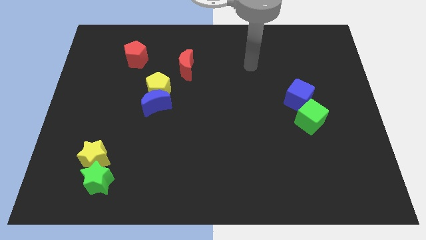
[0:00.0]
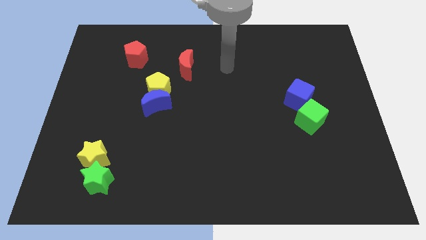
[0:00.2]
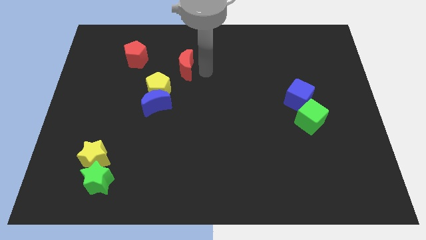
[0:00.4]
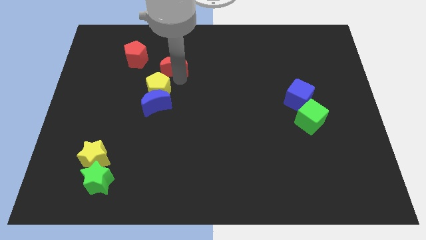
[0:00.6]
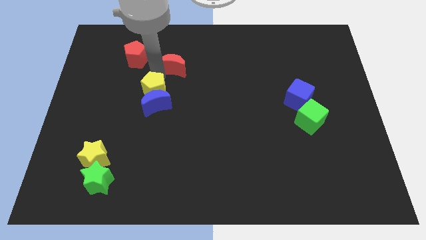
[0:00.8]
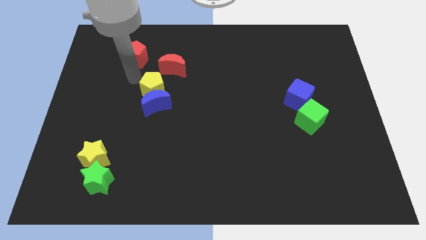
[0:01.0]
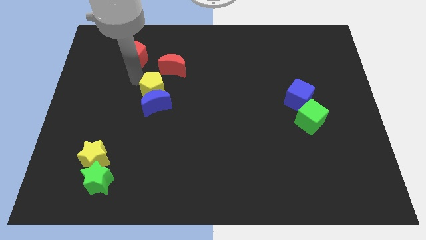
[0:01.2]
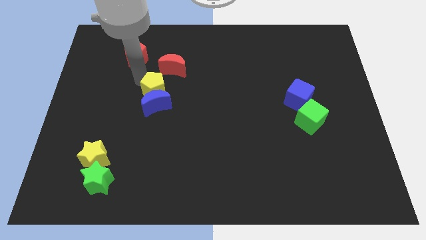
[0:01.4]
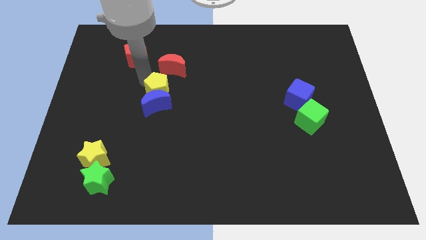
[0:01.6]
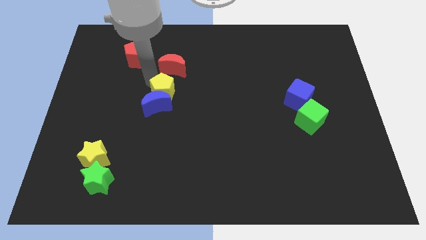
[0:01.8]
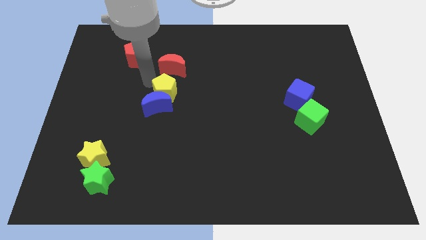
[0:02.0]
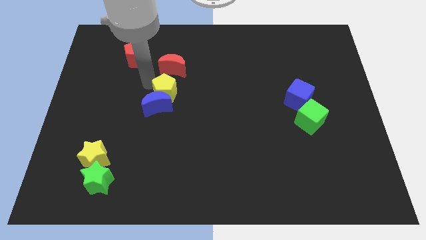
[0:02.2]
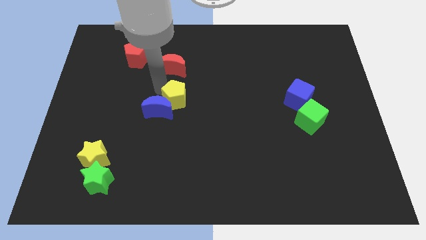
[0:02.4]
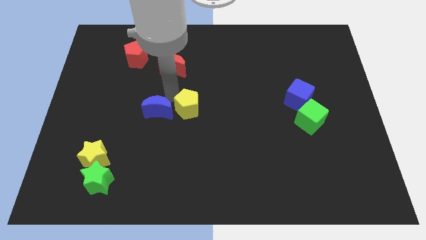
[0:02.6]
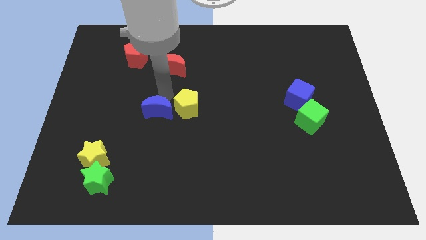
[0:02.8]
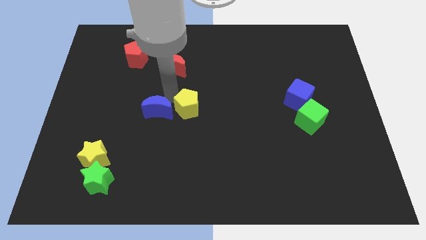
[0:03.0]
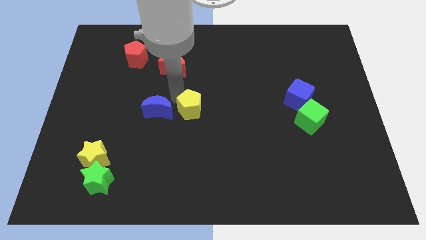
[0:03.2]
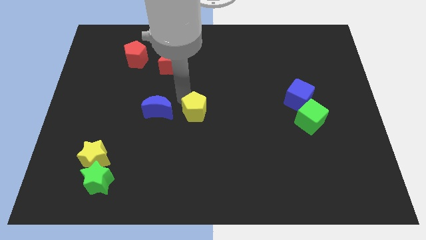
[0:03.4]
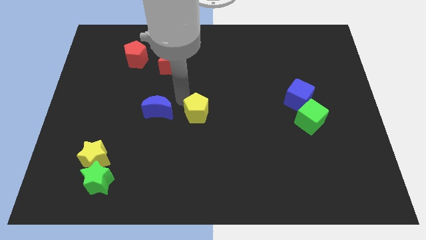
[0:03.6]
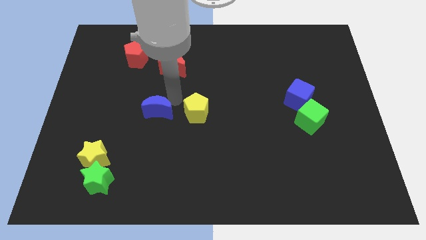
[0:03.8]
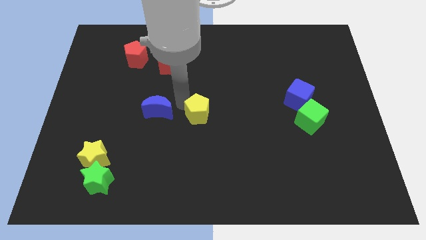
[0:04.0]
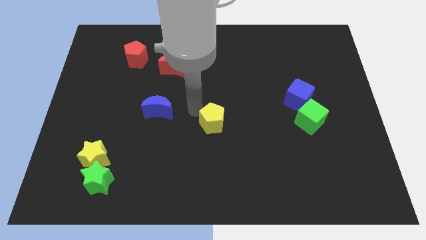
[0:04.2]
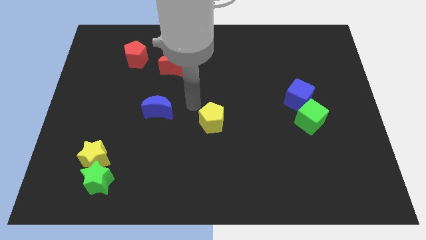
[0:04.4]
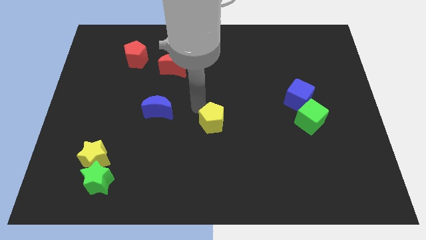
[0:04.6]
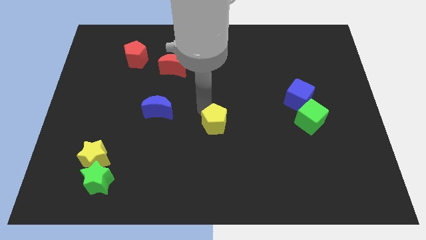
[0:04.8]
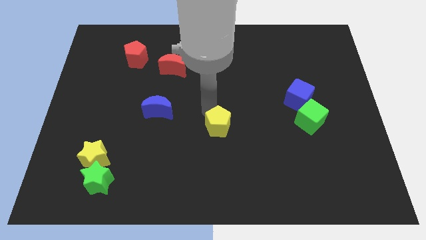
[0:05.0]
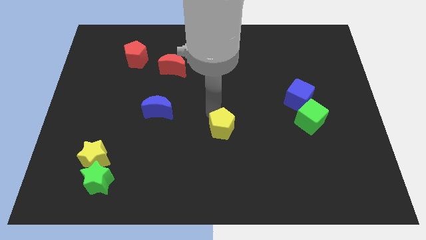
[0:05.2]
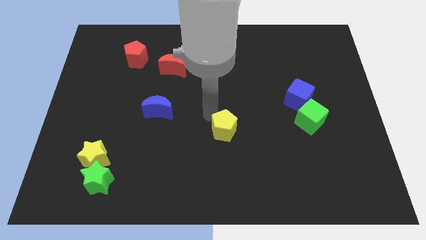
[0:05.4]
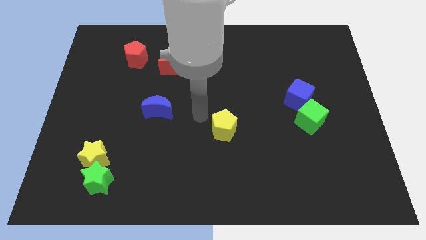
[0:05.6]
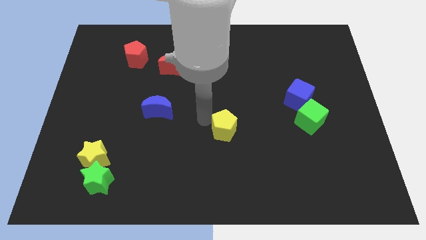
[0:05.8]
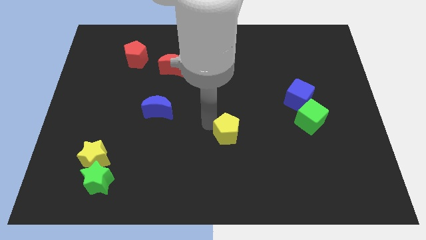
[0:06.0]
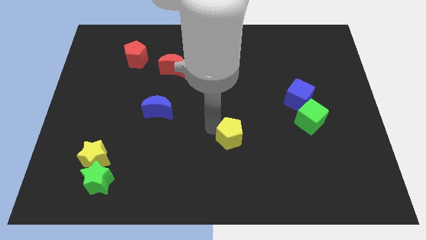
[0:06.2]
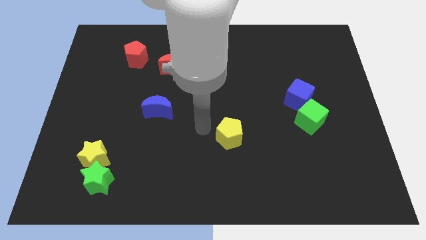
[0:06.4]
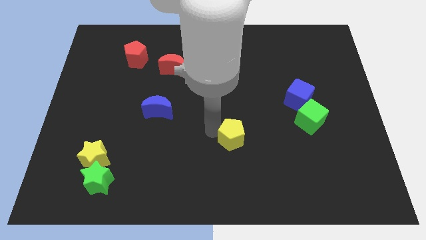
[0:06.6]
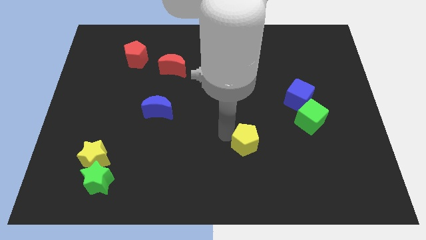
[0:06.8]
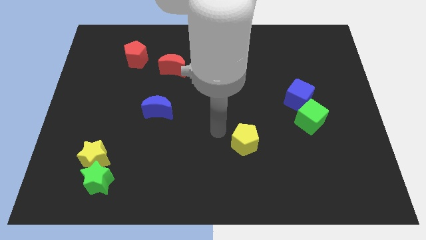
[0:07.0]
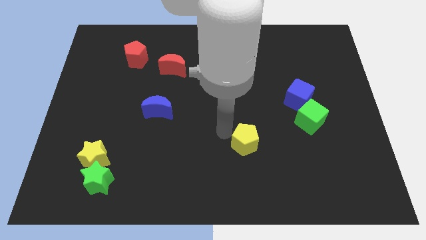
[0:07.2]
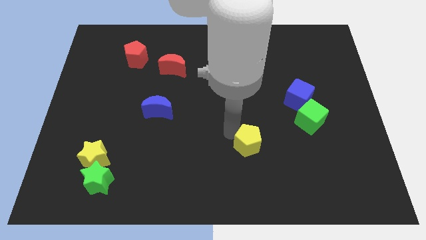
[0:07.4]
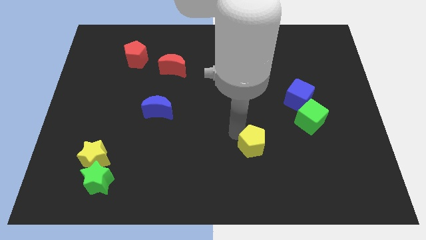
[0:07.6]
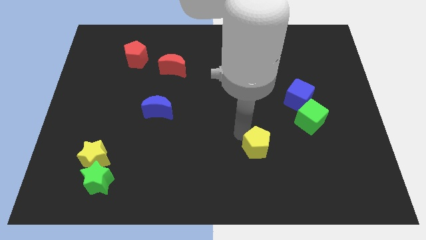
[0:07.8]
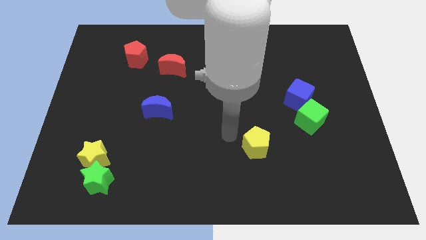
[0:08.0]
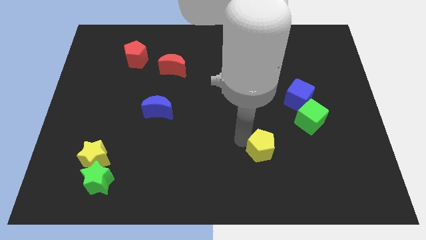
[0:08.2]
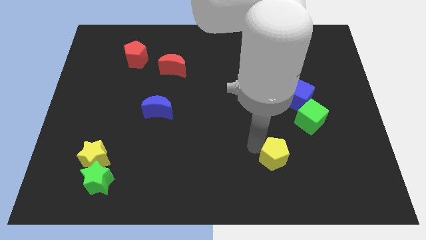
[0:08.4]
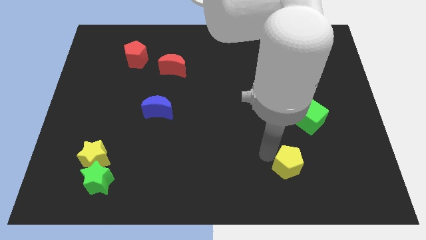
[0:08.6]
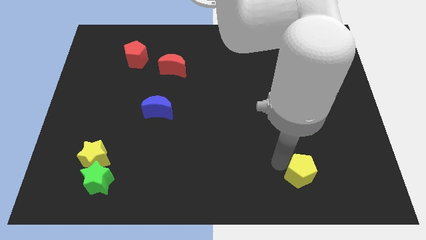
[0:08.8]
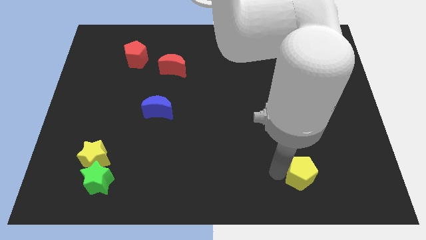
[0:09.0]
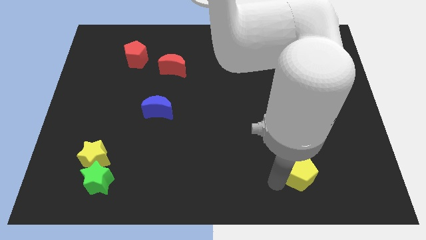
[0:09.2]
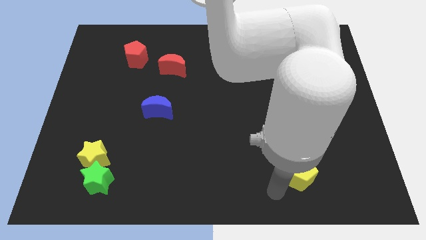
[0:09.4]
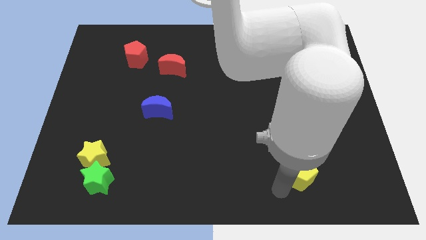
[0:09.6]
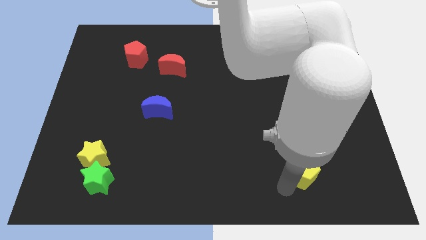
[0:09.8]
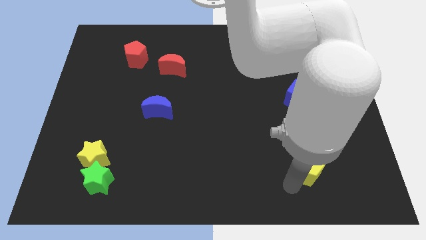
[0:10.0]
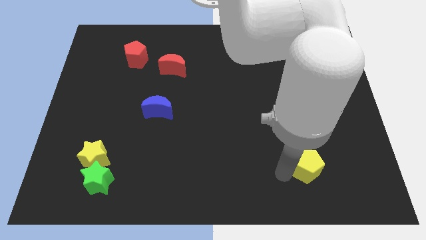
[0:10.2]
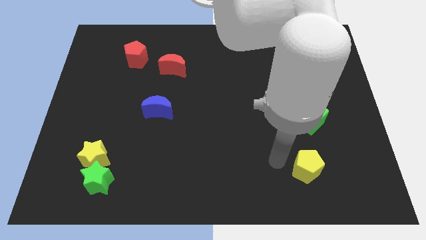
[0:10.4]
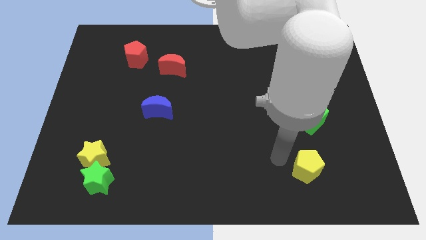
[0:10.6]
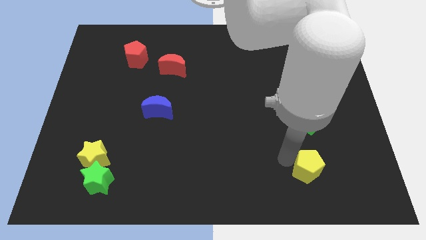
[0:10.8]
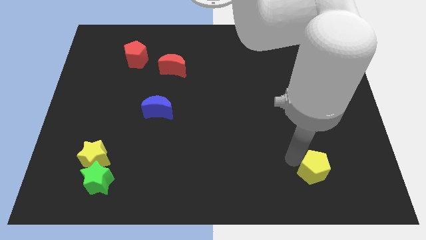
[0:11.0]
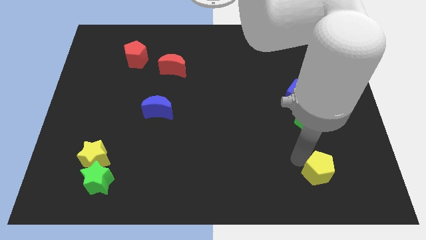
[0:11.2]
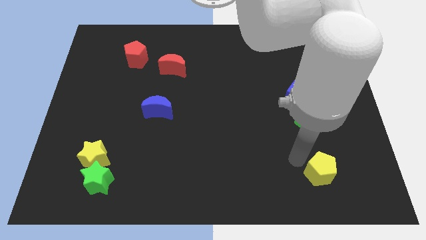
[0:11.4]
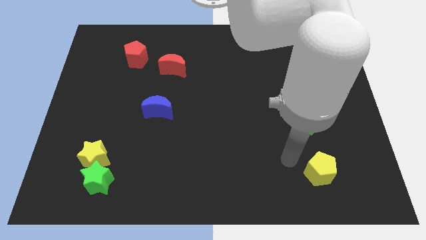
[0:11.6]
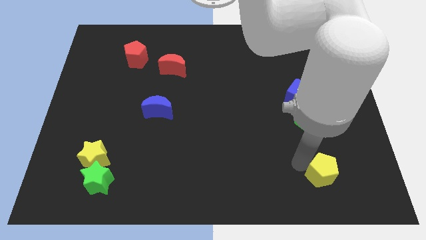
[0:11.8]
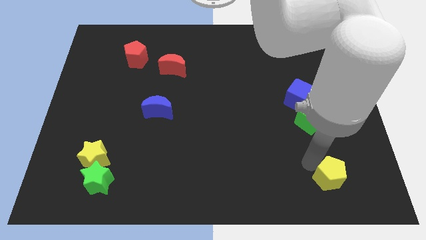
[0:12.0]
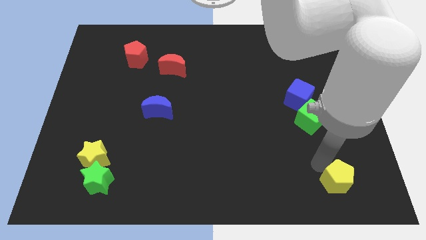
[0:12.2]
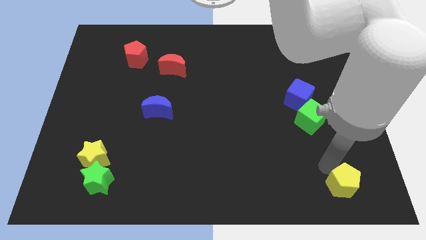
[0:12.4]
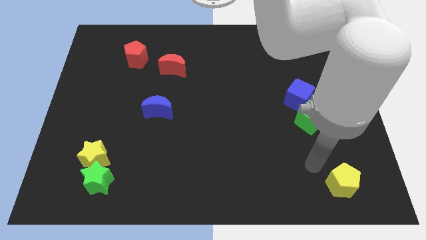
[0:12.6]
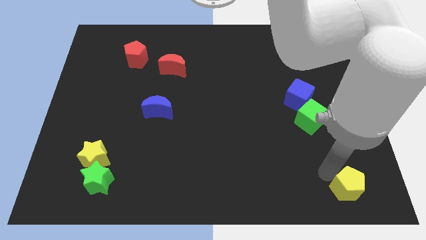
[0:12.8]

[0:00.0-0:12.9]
put the yellow pentagon to the bottom right of the board

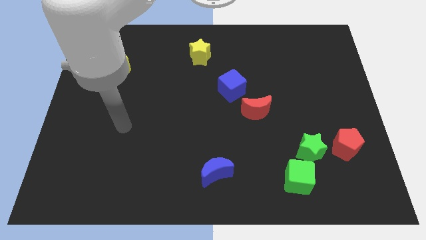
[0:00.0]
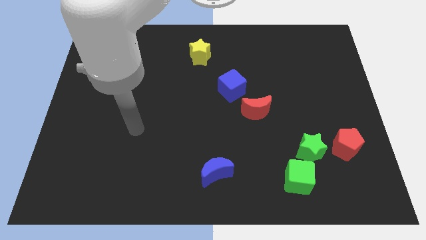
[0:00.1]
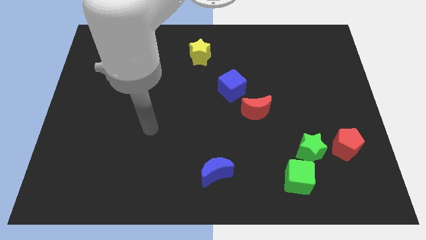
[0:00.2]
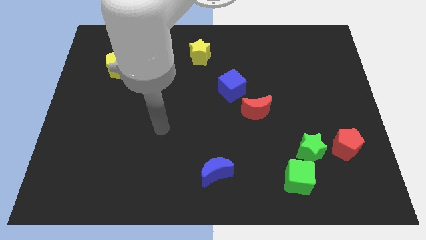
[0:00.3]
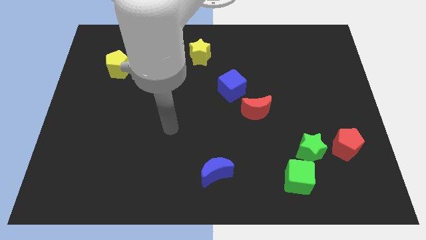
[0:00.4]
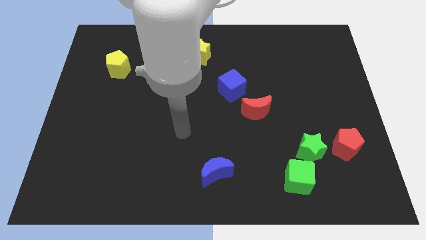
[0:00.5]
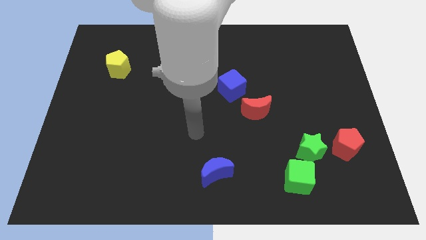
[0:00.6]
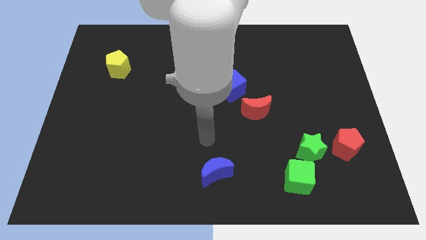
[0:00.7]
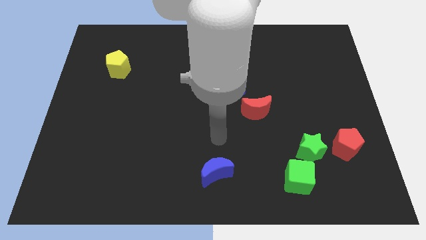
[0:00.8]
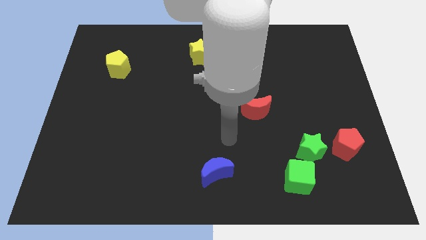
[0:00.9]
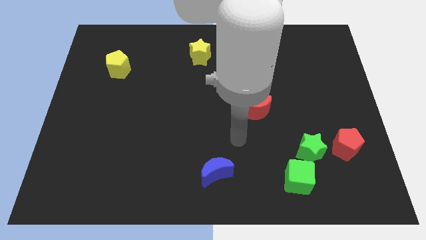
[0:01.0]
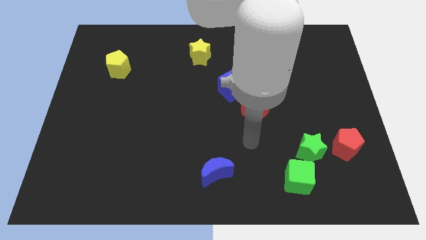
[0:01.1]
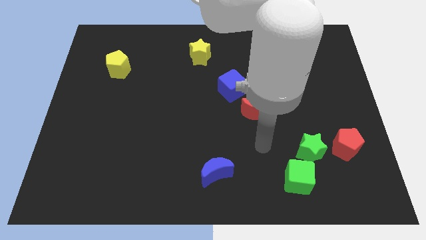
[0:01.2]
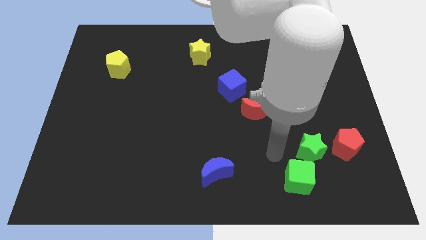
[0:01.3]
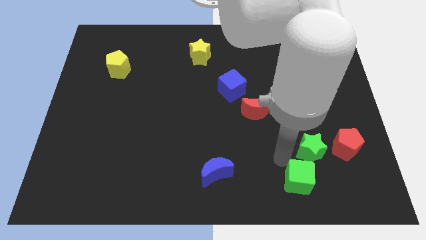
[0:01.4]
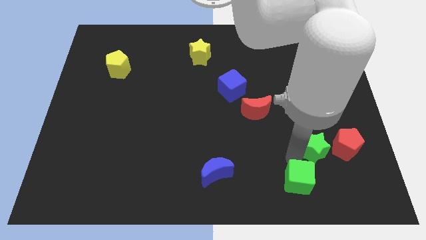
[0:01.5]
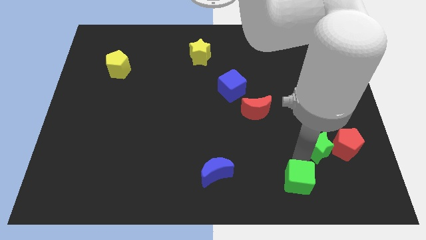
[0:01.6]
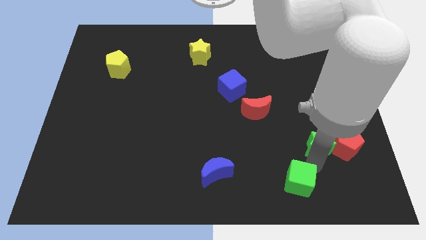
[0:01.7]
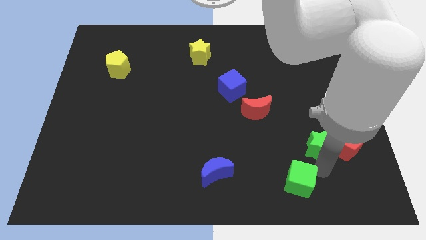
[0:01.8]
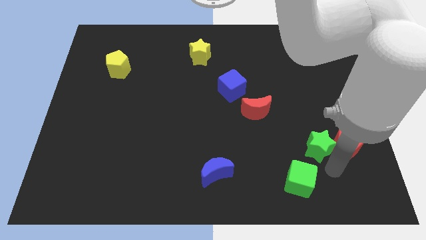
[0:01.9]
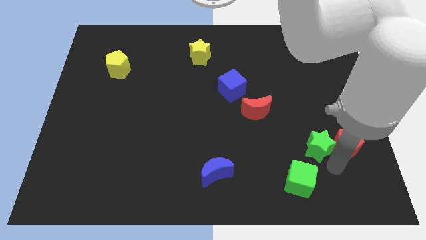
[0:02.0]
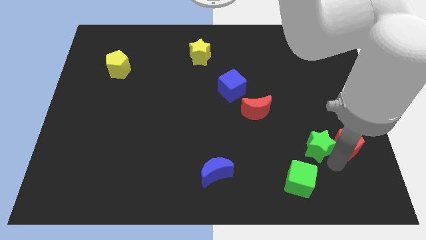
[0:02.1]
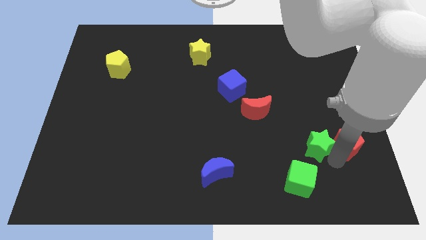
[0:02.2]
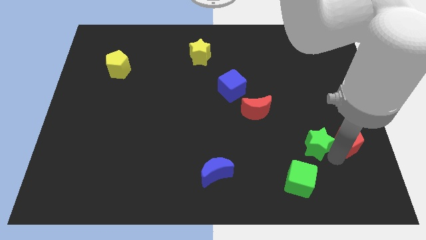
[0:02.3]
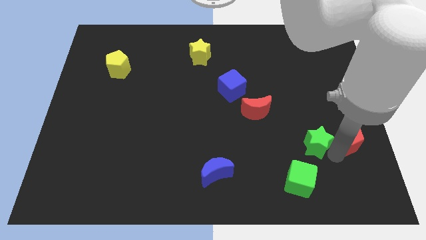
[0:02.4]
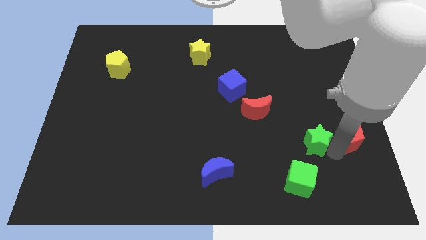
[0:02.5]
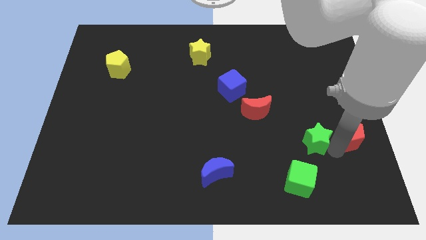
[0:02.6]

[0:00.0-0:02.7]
push the red pentagon to the right side
